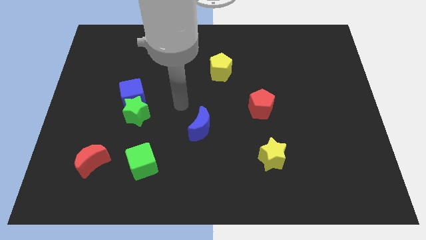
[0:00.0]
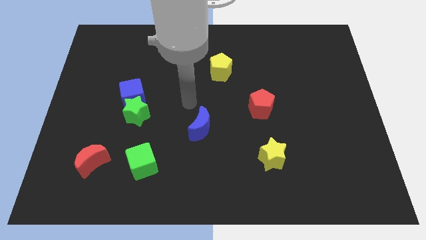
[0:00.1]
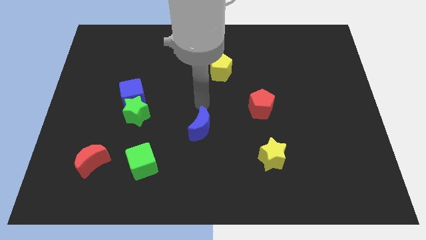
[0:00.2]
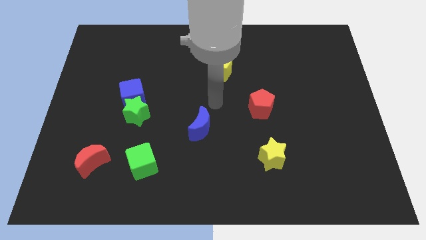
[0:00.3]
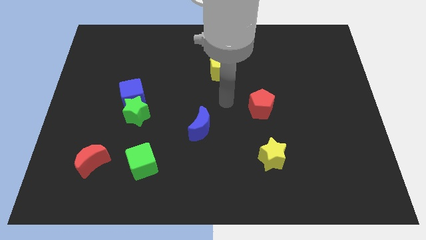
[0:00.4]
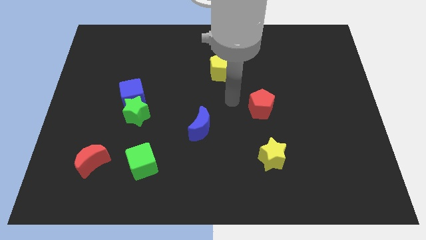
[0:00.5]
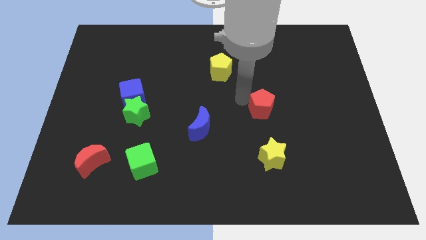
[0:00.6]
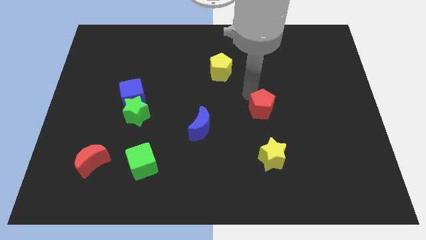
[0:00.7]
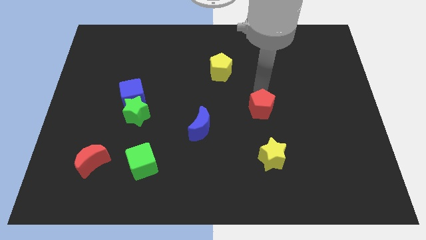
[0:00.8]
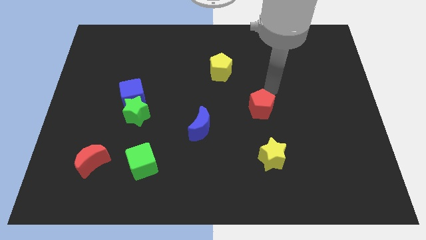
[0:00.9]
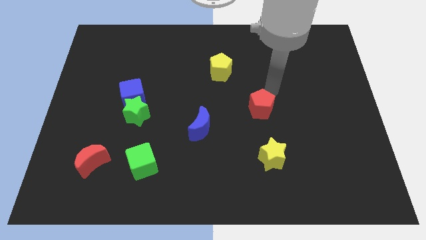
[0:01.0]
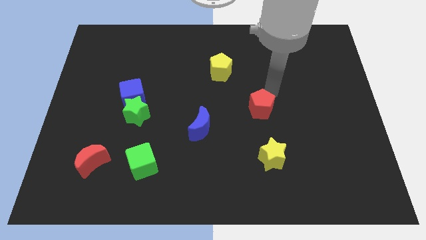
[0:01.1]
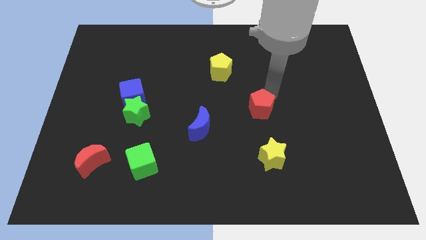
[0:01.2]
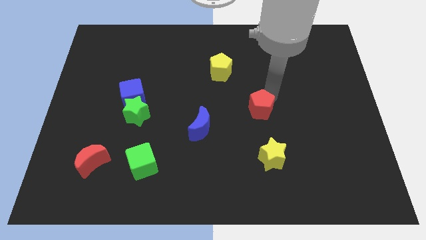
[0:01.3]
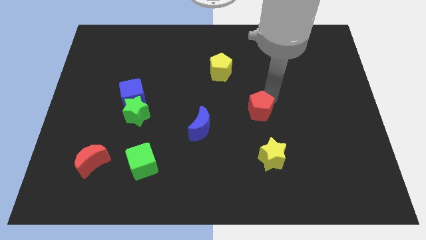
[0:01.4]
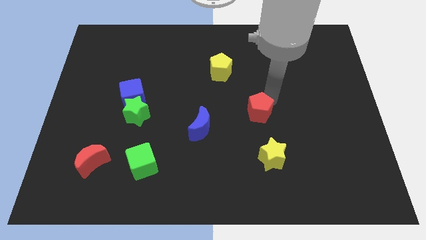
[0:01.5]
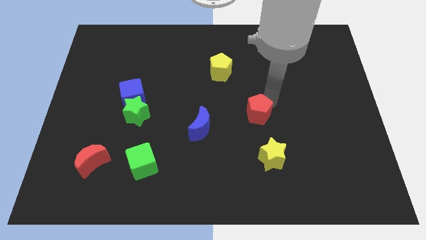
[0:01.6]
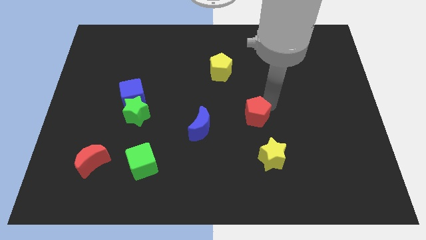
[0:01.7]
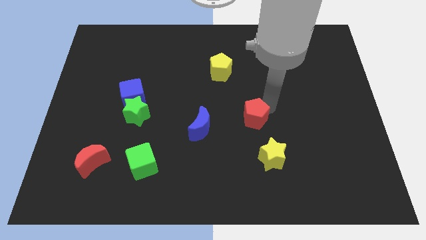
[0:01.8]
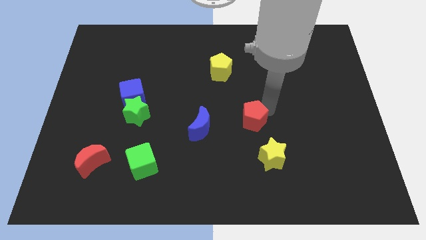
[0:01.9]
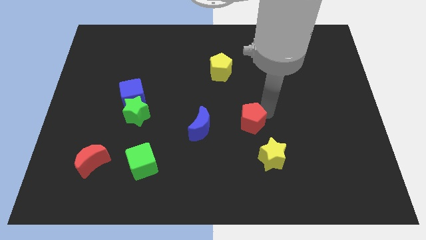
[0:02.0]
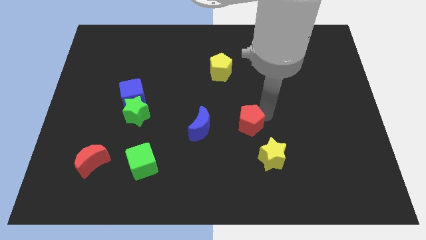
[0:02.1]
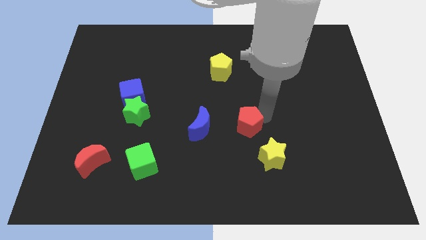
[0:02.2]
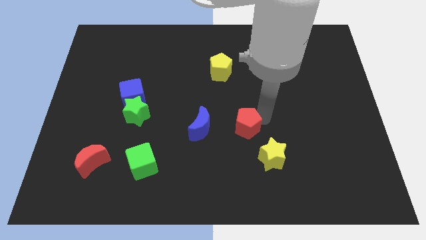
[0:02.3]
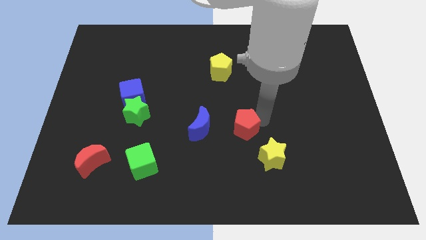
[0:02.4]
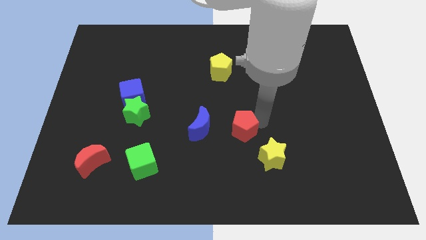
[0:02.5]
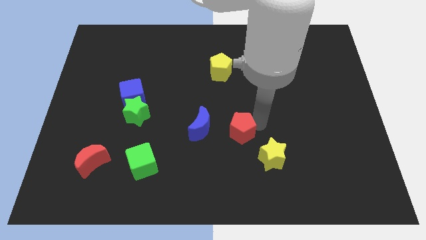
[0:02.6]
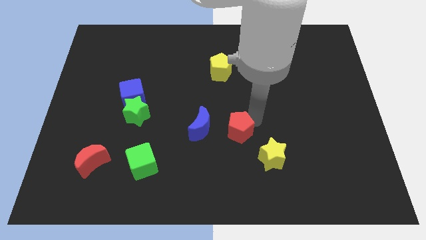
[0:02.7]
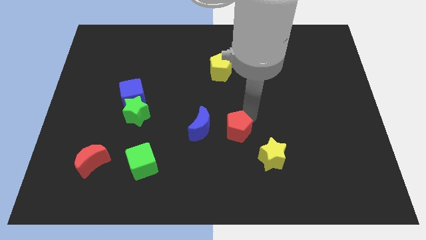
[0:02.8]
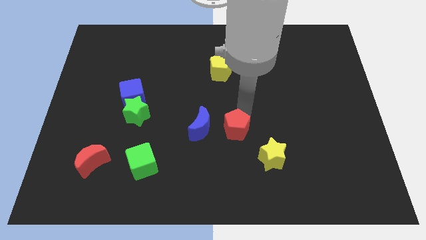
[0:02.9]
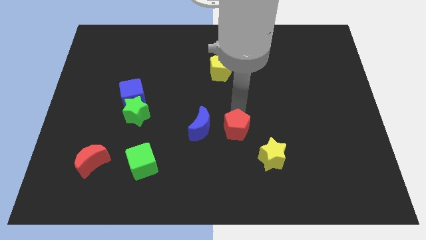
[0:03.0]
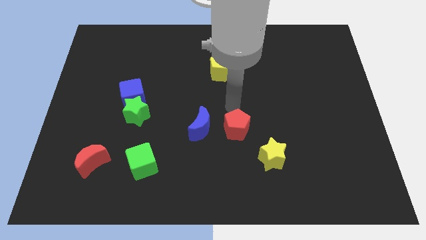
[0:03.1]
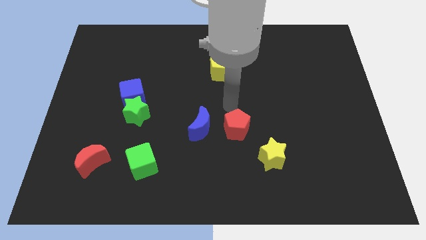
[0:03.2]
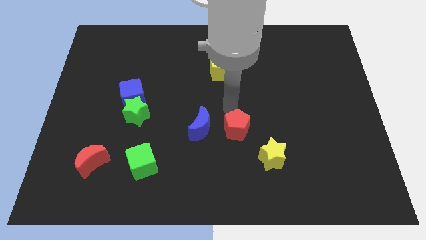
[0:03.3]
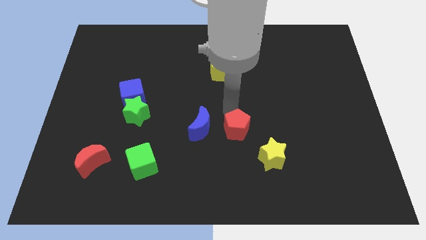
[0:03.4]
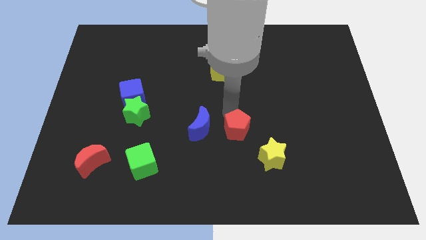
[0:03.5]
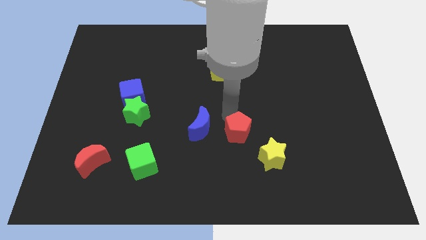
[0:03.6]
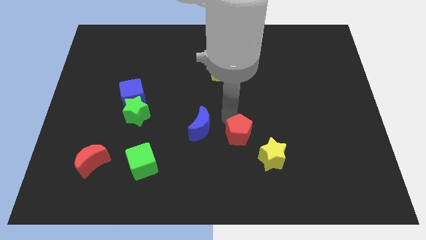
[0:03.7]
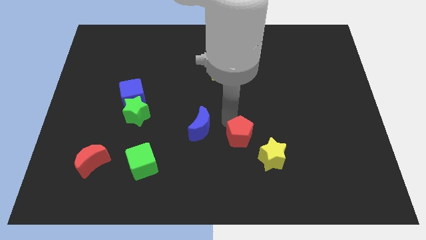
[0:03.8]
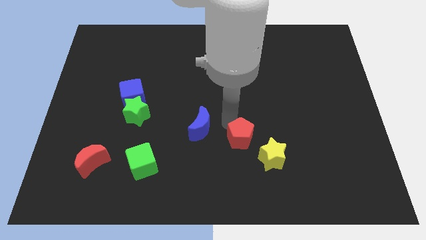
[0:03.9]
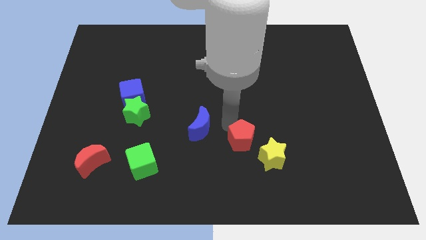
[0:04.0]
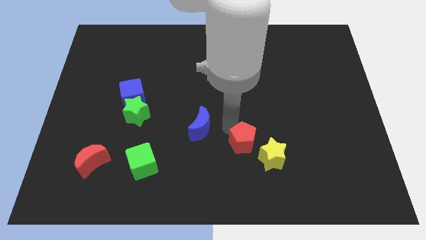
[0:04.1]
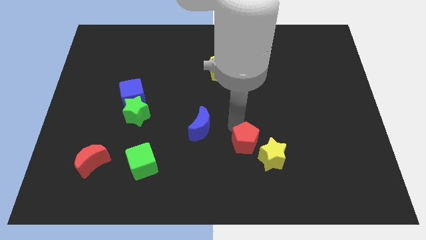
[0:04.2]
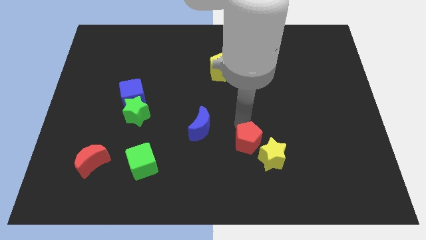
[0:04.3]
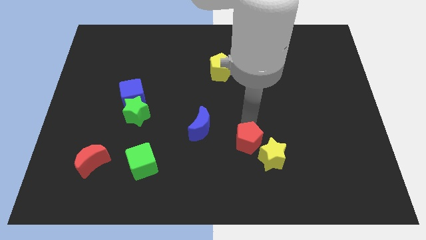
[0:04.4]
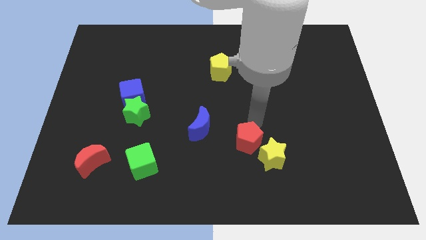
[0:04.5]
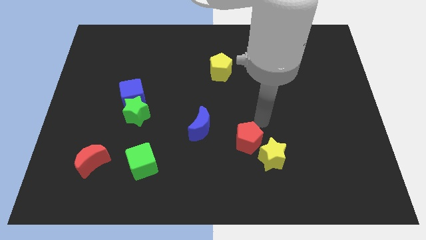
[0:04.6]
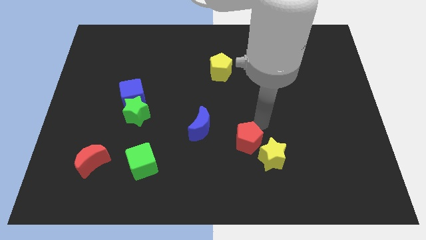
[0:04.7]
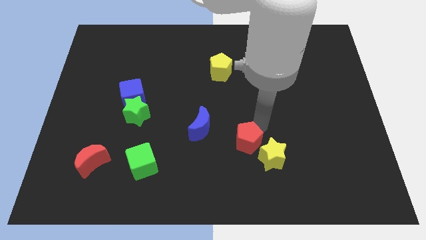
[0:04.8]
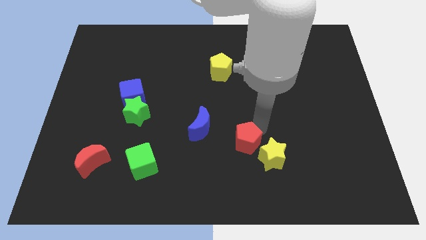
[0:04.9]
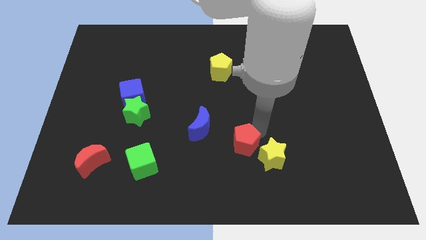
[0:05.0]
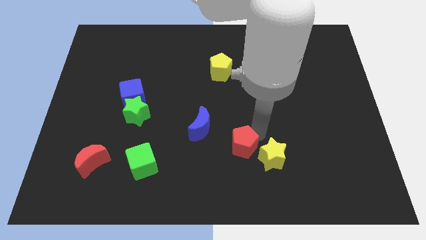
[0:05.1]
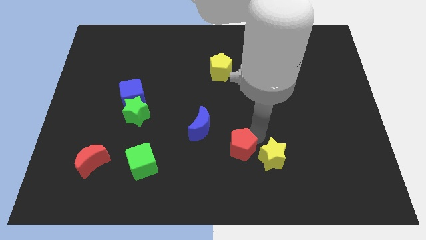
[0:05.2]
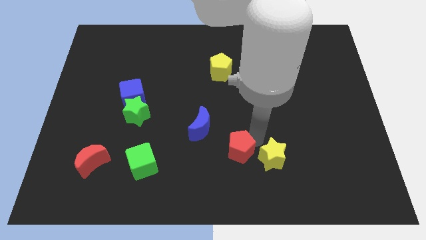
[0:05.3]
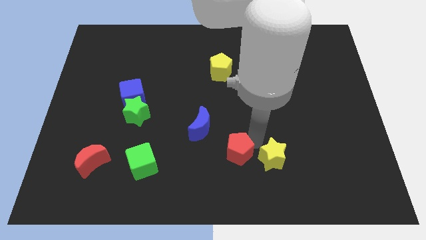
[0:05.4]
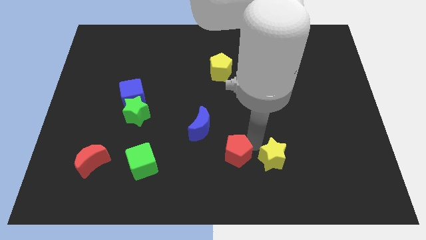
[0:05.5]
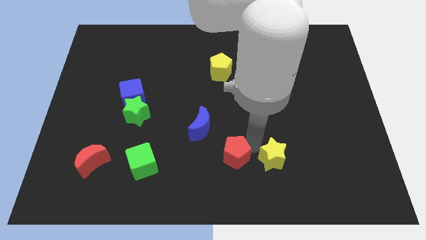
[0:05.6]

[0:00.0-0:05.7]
slide the red pentagon to the bottom side

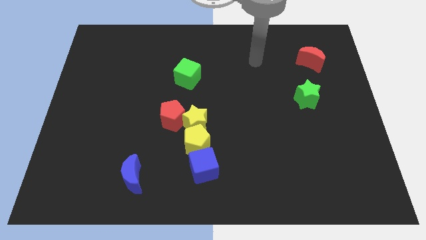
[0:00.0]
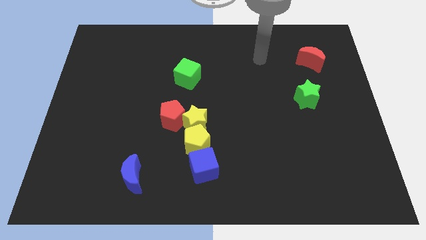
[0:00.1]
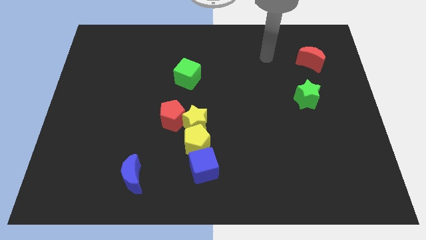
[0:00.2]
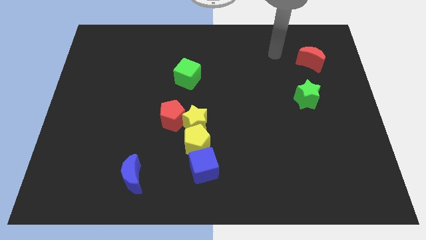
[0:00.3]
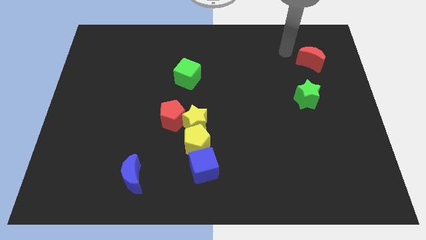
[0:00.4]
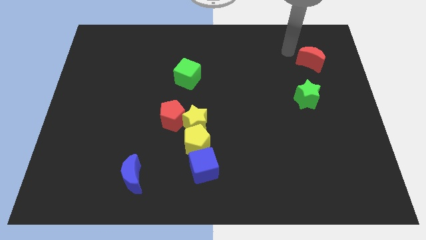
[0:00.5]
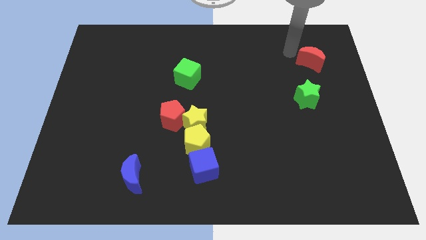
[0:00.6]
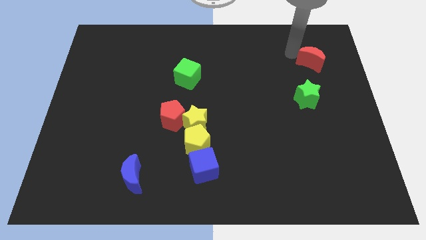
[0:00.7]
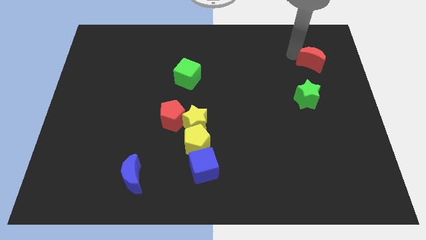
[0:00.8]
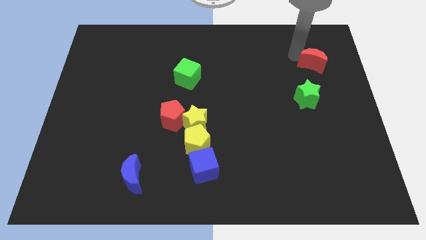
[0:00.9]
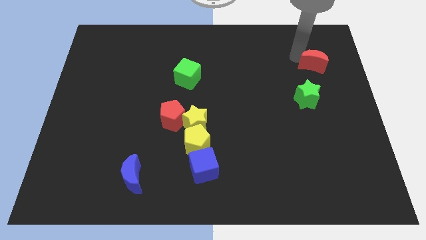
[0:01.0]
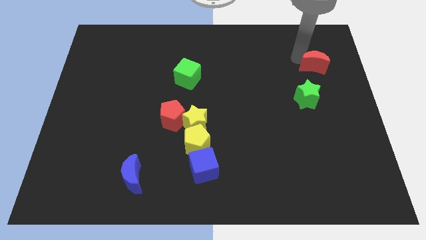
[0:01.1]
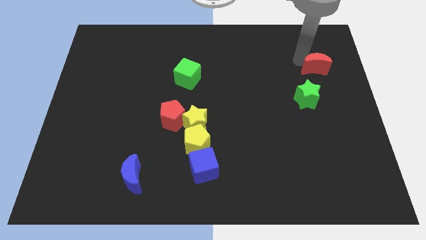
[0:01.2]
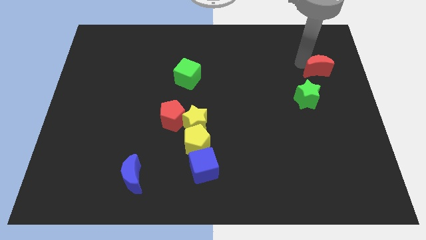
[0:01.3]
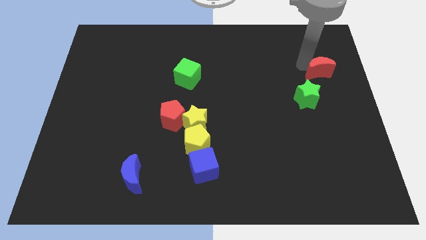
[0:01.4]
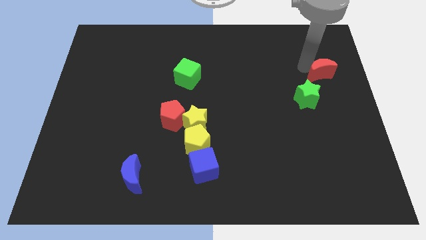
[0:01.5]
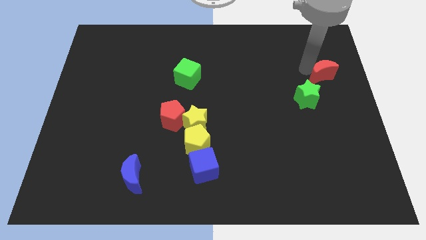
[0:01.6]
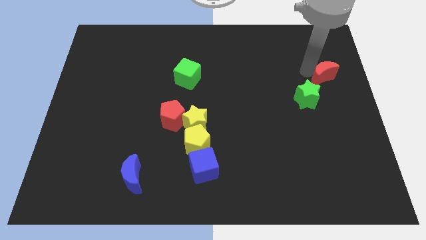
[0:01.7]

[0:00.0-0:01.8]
put the red moon to the center right

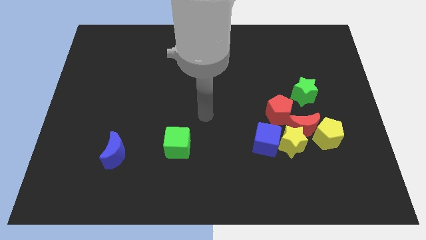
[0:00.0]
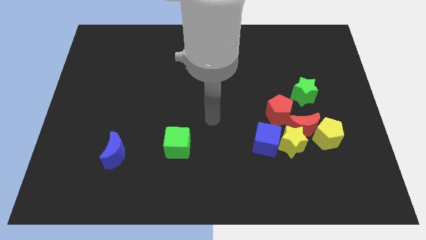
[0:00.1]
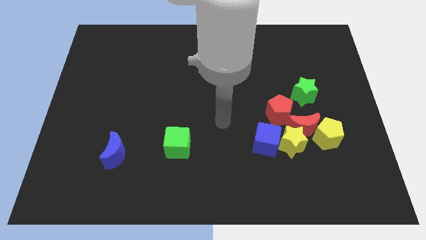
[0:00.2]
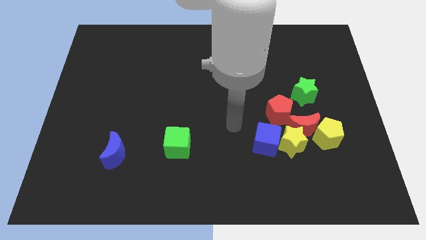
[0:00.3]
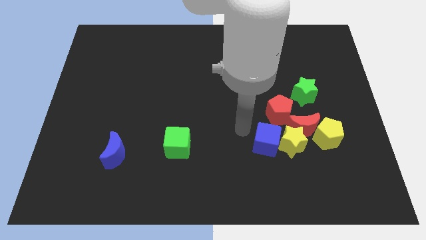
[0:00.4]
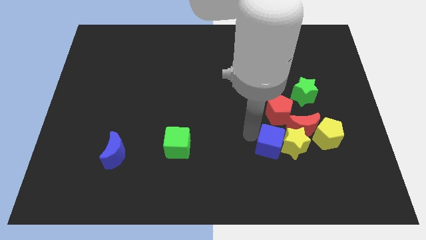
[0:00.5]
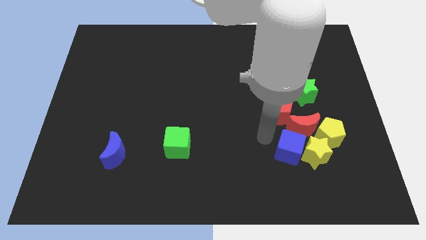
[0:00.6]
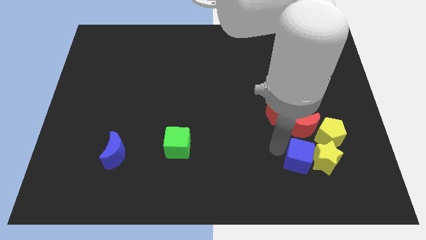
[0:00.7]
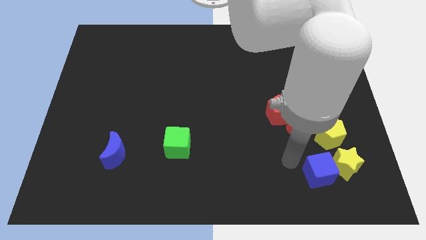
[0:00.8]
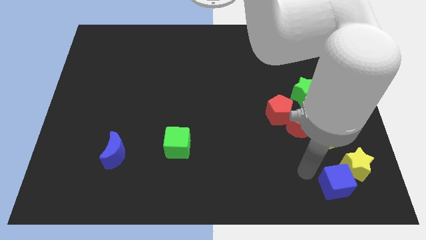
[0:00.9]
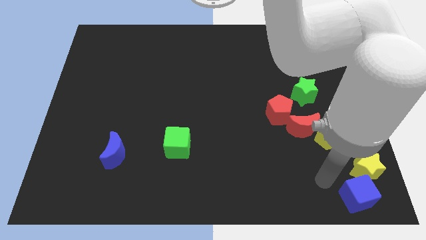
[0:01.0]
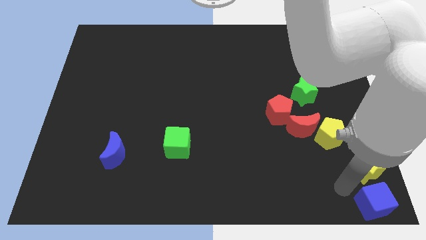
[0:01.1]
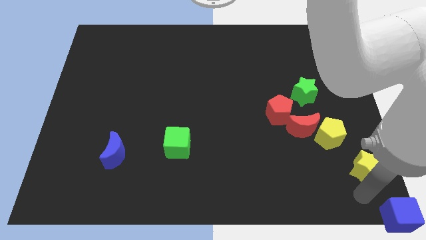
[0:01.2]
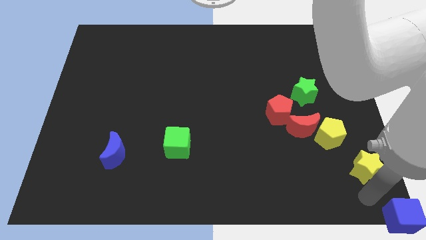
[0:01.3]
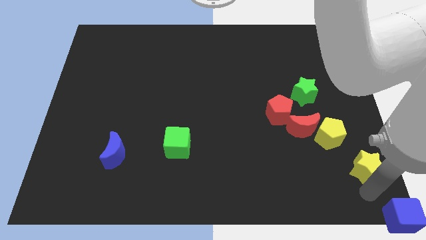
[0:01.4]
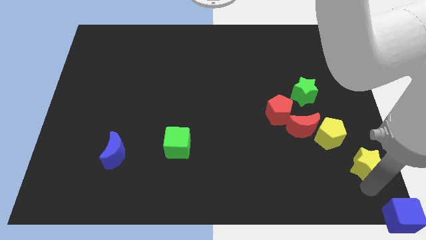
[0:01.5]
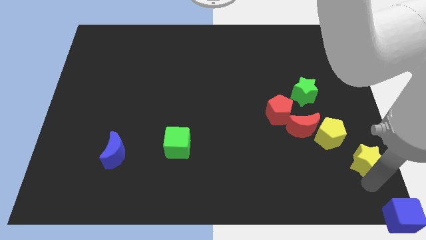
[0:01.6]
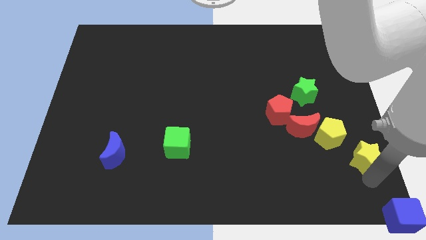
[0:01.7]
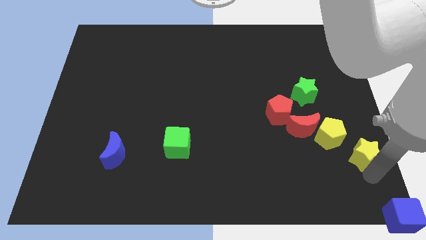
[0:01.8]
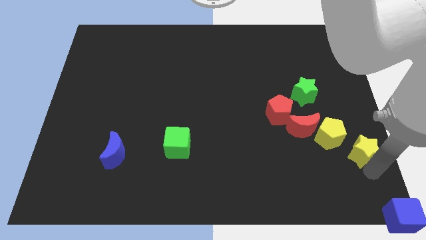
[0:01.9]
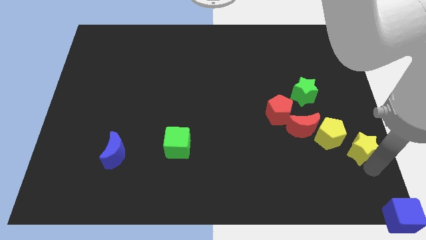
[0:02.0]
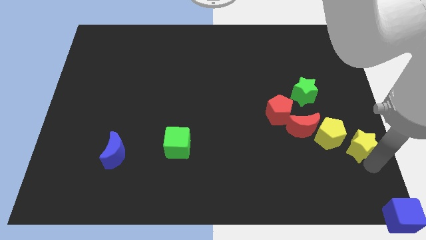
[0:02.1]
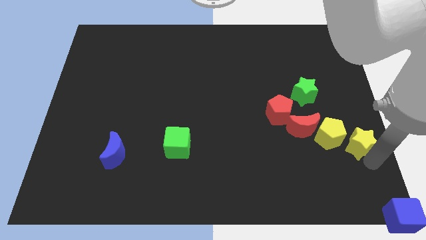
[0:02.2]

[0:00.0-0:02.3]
slide the yellow star to the right side
